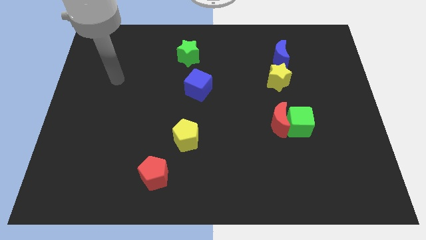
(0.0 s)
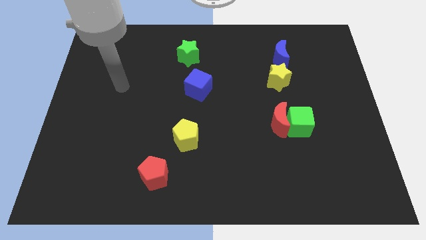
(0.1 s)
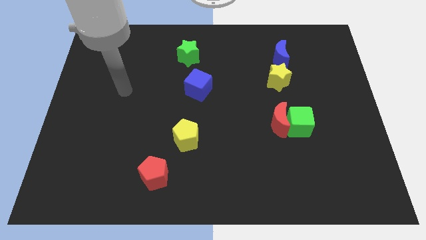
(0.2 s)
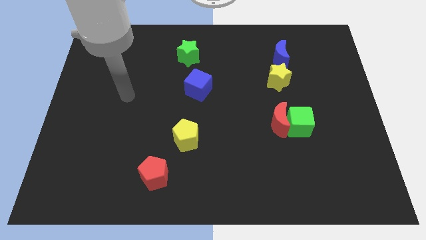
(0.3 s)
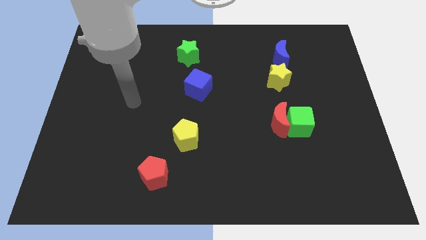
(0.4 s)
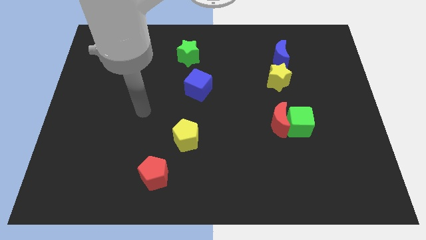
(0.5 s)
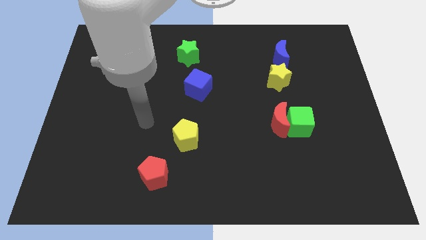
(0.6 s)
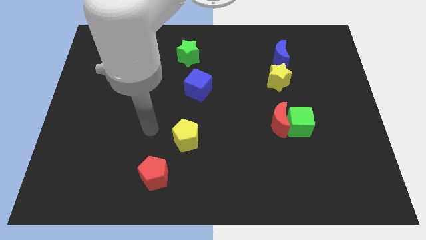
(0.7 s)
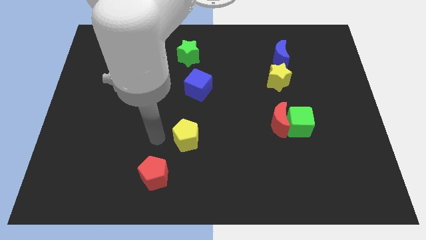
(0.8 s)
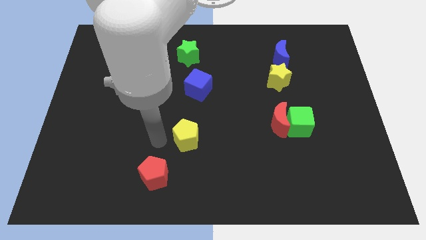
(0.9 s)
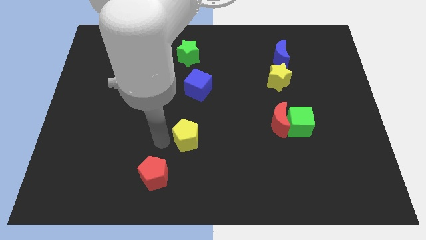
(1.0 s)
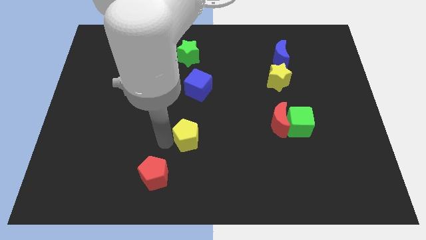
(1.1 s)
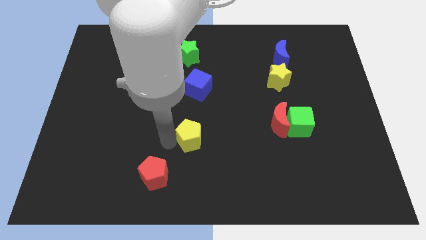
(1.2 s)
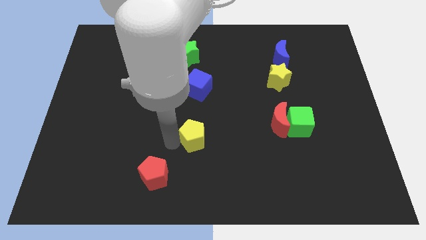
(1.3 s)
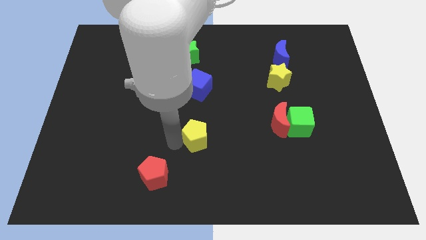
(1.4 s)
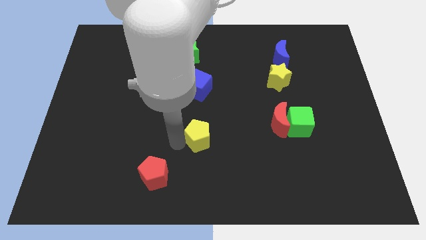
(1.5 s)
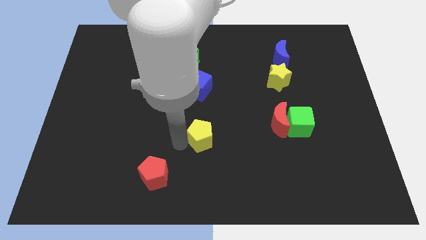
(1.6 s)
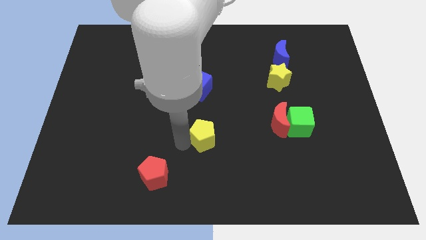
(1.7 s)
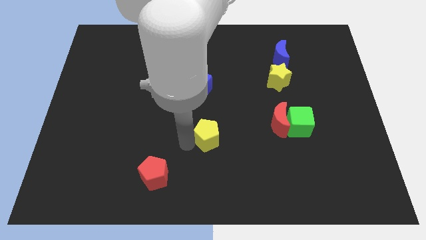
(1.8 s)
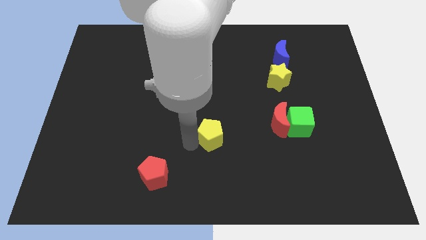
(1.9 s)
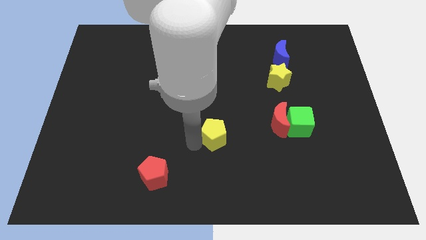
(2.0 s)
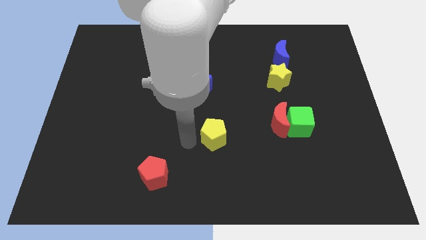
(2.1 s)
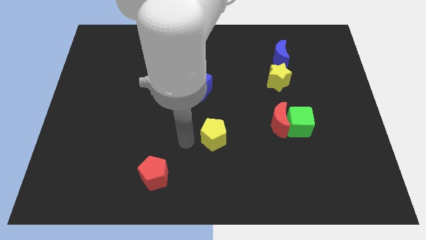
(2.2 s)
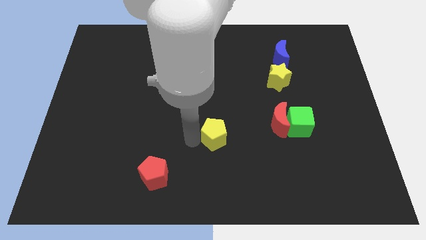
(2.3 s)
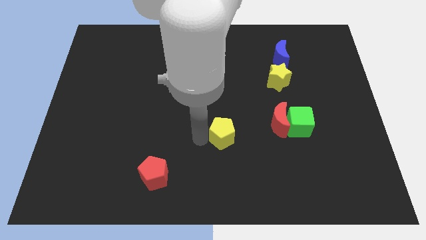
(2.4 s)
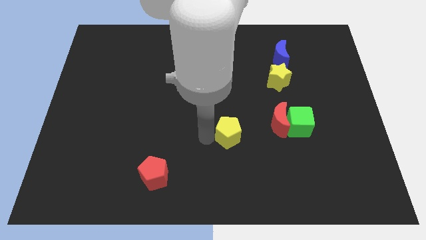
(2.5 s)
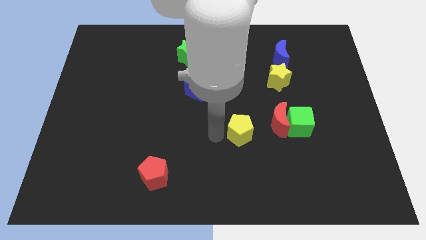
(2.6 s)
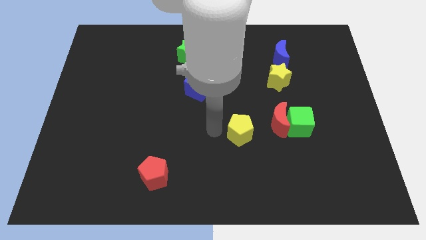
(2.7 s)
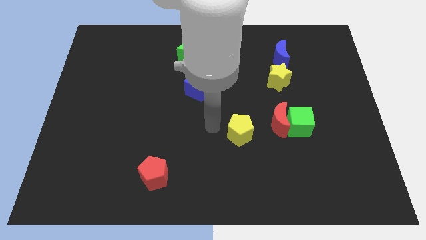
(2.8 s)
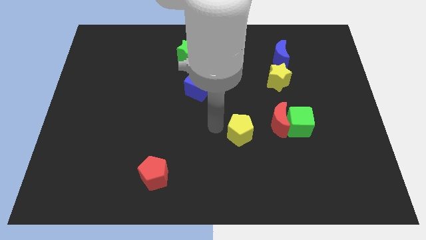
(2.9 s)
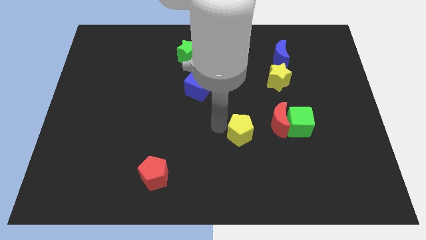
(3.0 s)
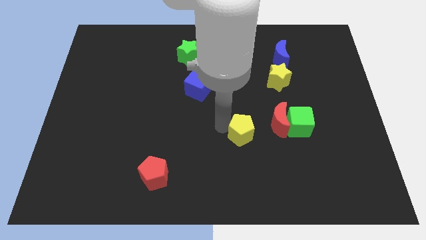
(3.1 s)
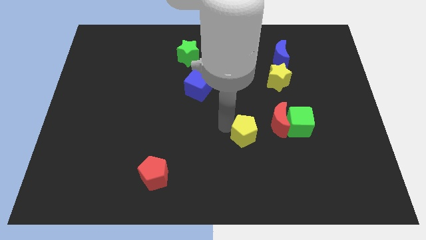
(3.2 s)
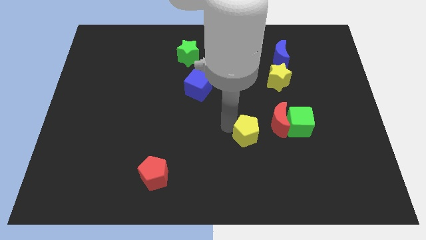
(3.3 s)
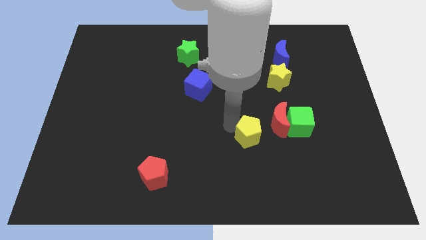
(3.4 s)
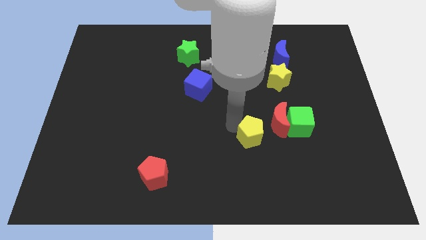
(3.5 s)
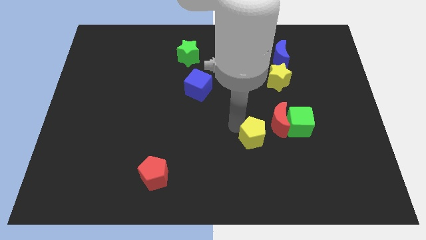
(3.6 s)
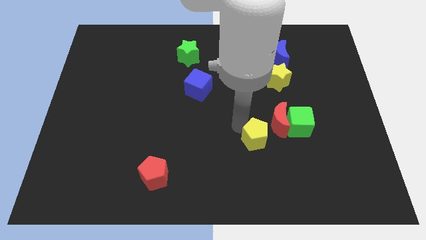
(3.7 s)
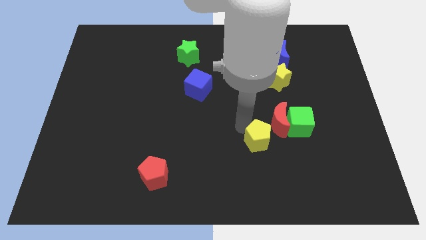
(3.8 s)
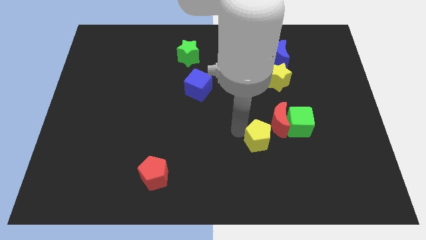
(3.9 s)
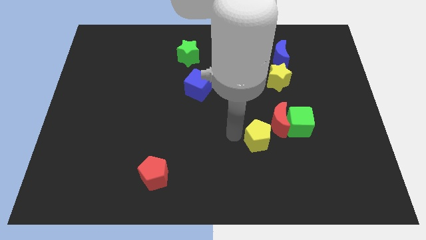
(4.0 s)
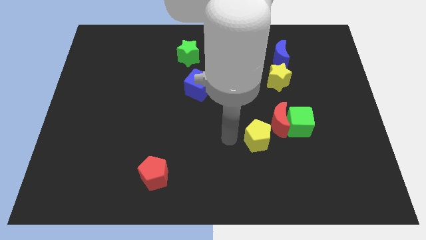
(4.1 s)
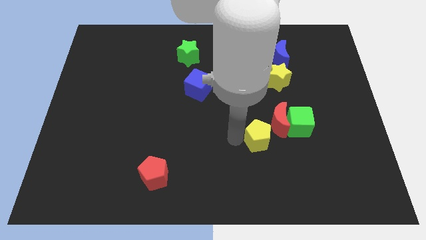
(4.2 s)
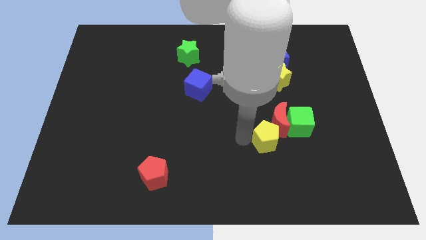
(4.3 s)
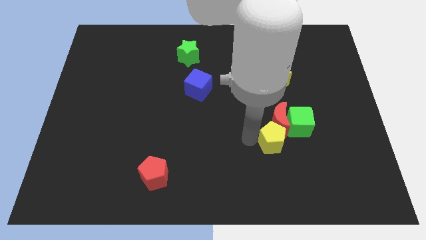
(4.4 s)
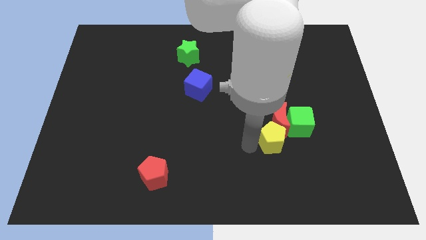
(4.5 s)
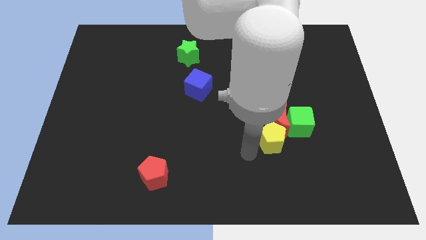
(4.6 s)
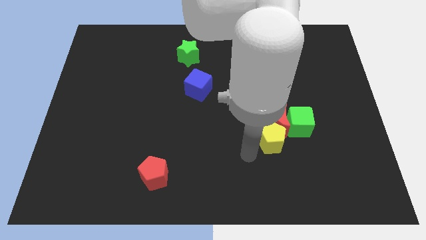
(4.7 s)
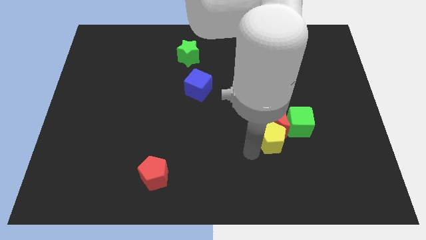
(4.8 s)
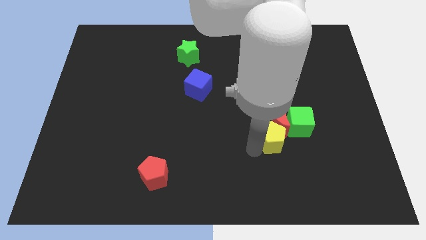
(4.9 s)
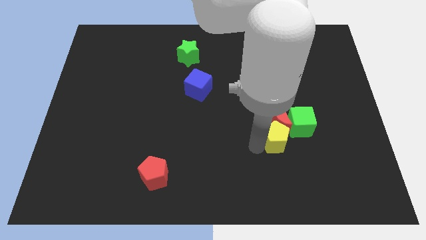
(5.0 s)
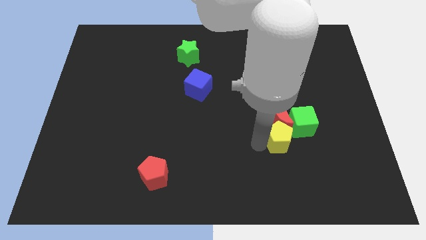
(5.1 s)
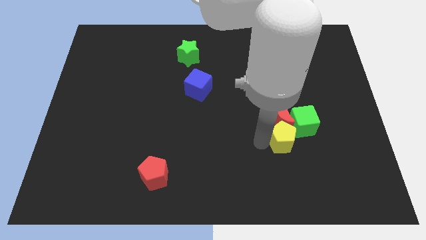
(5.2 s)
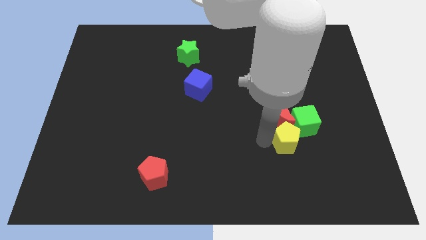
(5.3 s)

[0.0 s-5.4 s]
push the yellow pentagon close to the green cube

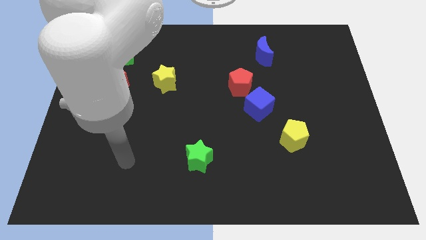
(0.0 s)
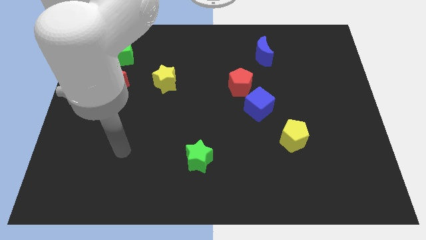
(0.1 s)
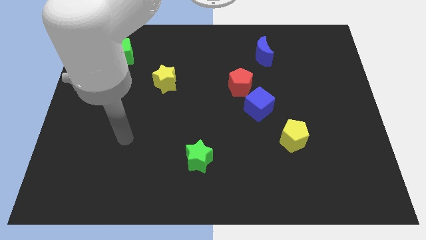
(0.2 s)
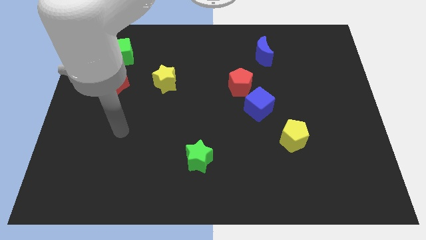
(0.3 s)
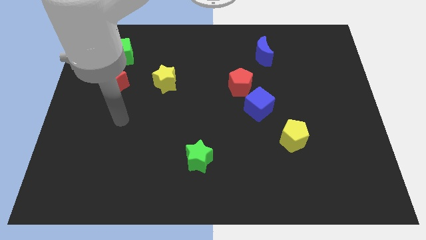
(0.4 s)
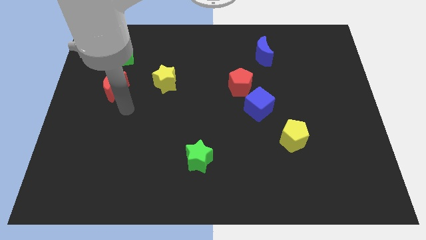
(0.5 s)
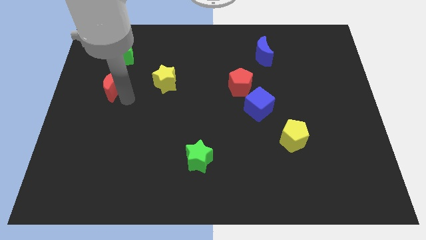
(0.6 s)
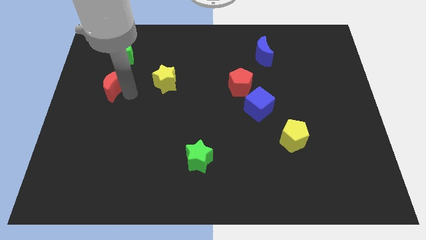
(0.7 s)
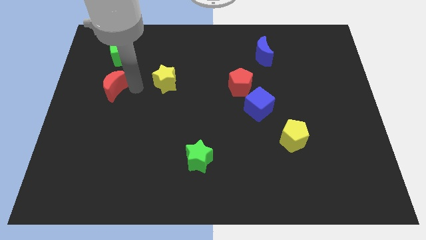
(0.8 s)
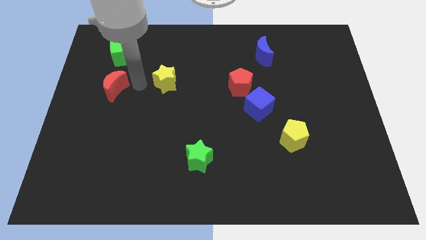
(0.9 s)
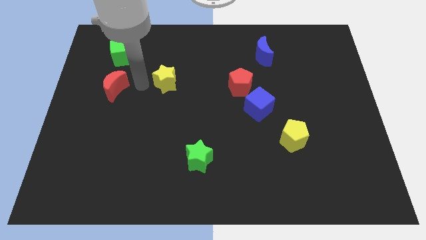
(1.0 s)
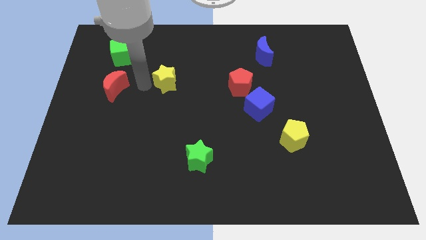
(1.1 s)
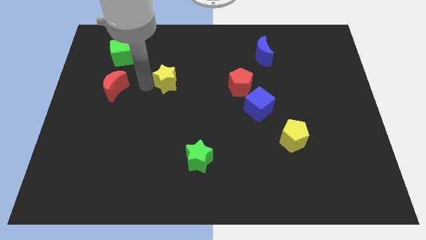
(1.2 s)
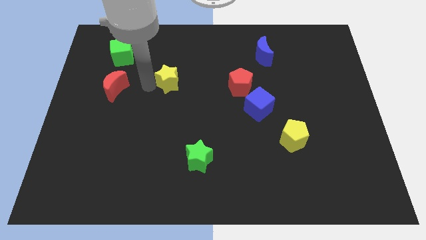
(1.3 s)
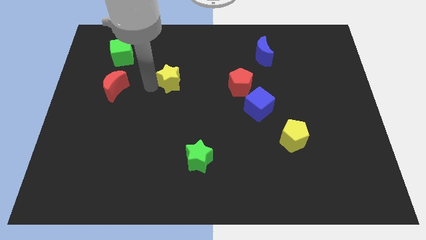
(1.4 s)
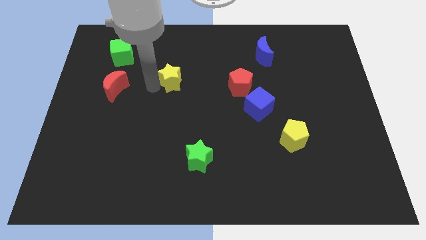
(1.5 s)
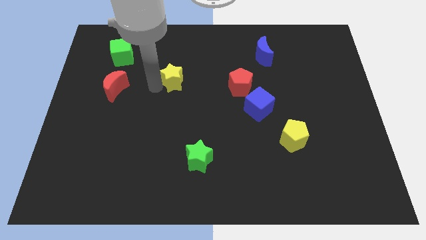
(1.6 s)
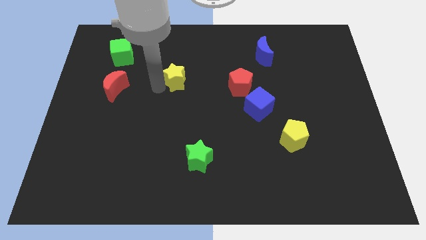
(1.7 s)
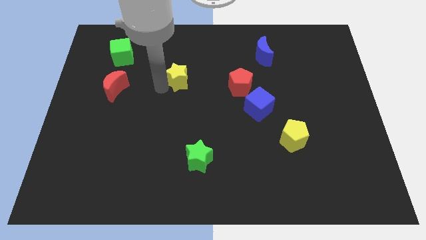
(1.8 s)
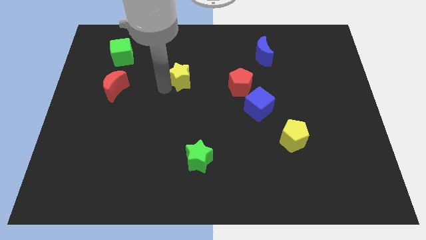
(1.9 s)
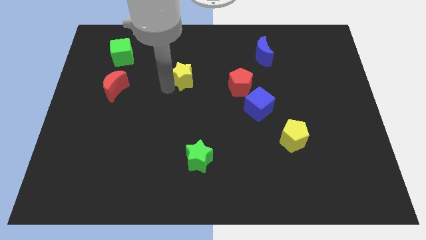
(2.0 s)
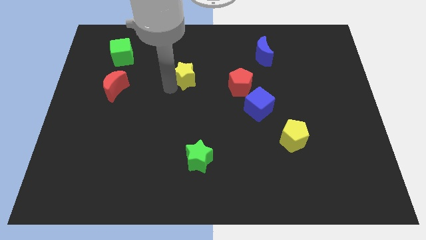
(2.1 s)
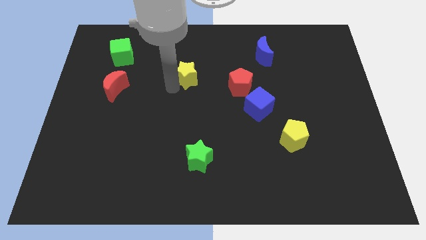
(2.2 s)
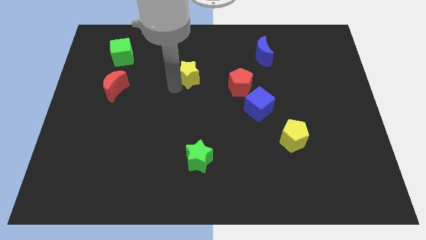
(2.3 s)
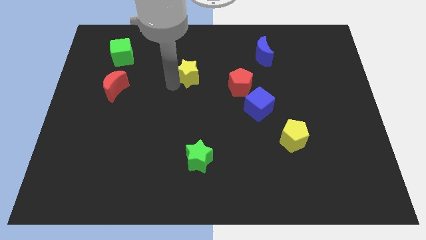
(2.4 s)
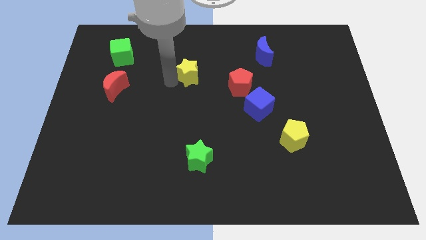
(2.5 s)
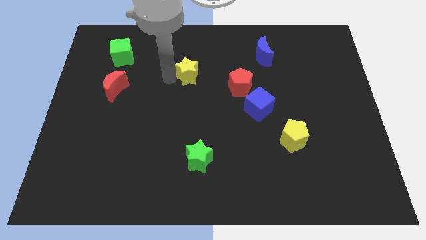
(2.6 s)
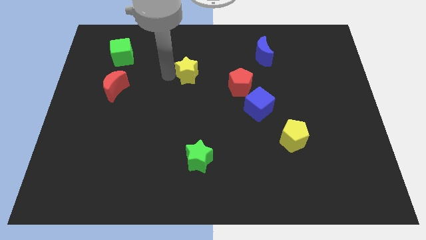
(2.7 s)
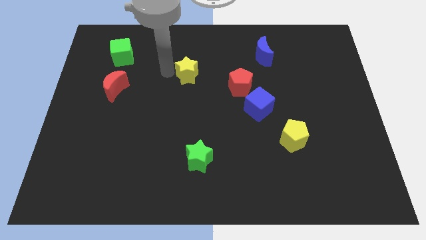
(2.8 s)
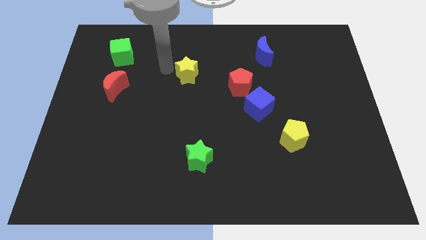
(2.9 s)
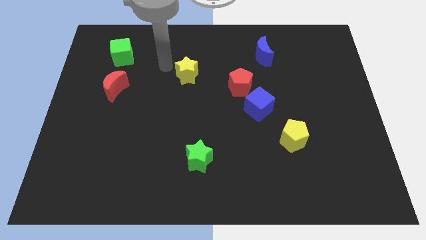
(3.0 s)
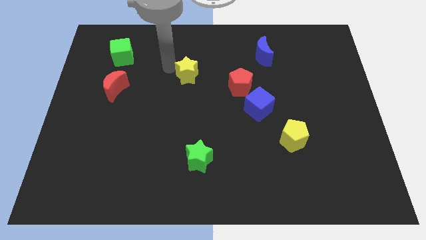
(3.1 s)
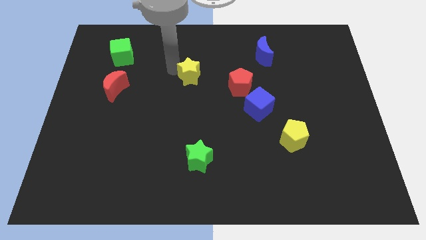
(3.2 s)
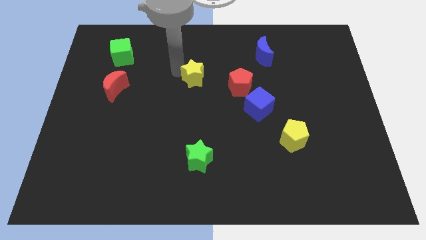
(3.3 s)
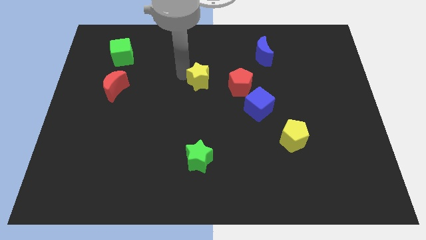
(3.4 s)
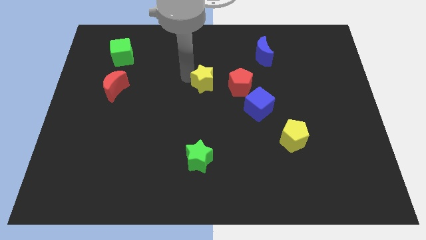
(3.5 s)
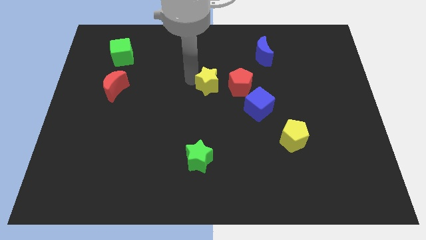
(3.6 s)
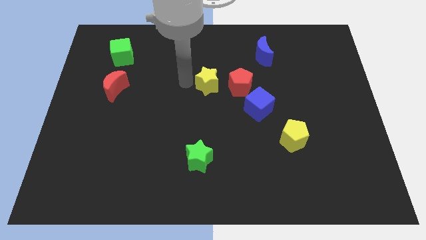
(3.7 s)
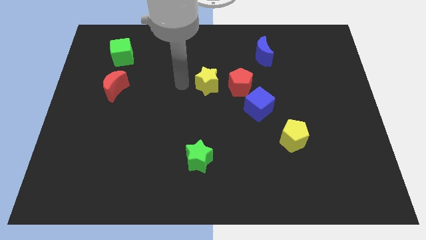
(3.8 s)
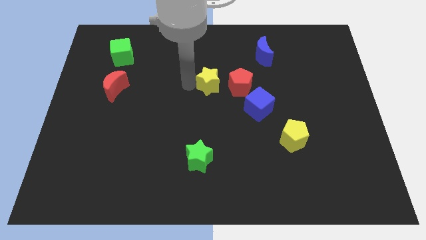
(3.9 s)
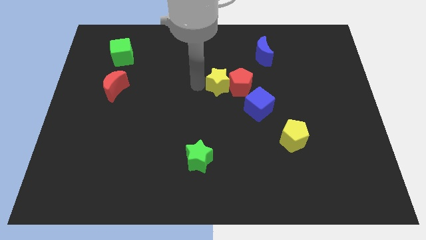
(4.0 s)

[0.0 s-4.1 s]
put the yellow star next to the red pentagon
